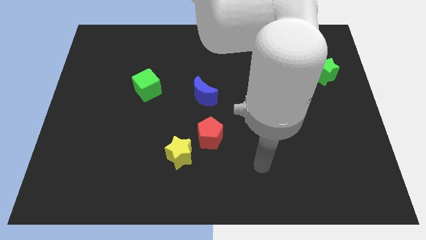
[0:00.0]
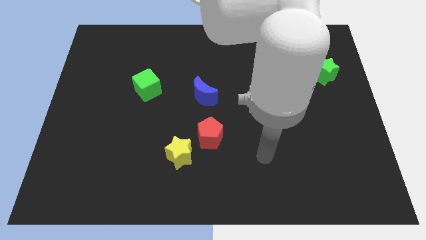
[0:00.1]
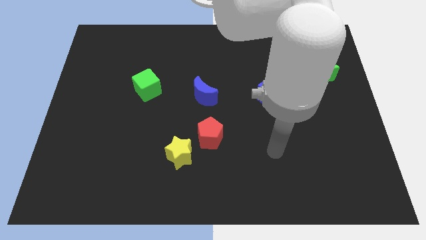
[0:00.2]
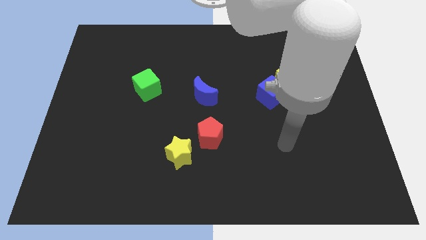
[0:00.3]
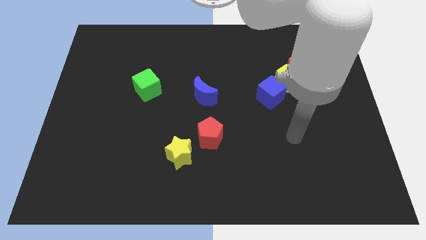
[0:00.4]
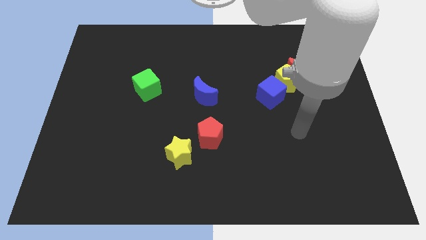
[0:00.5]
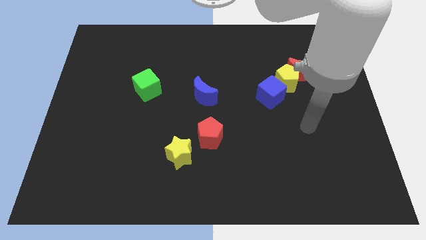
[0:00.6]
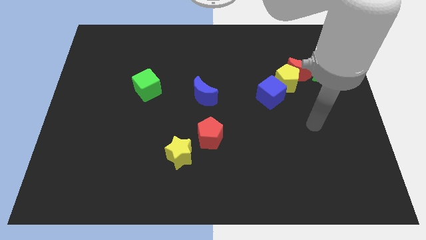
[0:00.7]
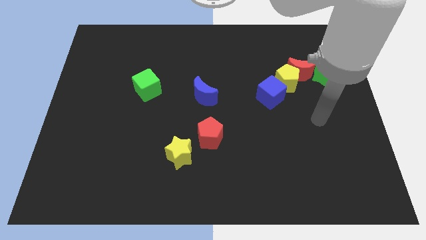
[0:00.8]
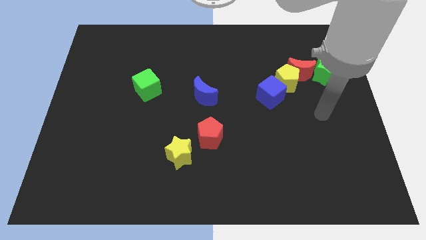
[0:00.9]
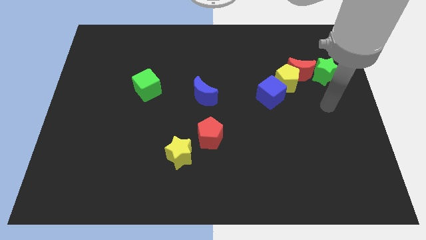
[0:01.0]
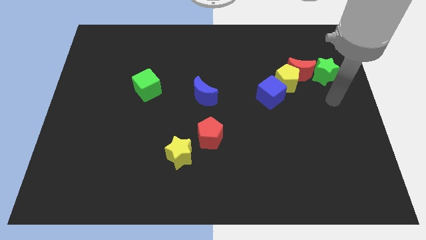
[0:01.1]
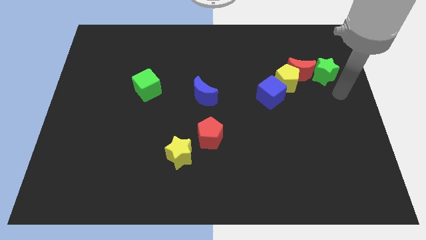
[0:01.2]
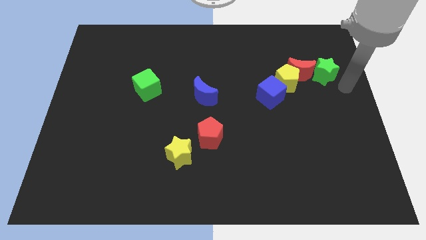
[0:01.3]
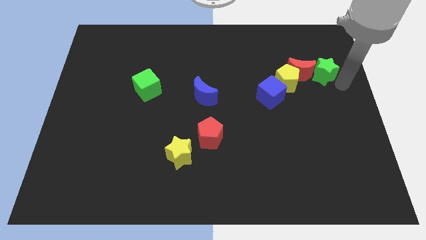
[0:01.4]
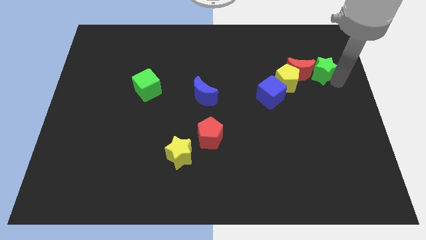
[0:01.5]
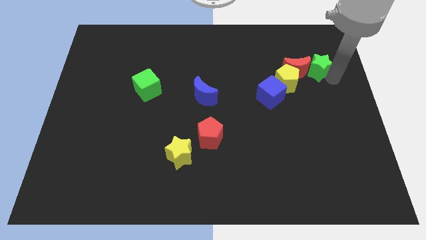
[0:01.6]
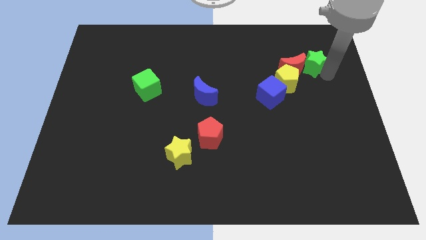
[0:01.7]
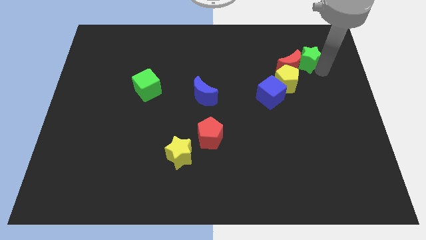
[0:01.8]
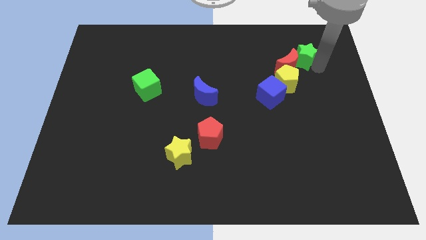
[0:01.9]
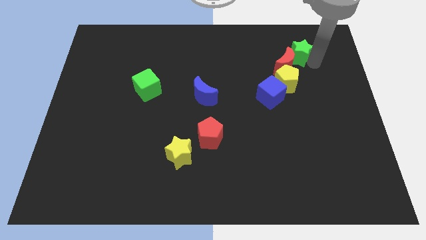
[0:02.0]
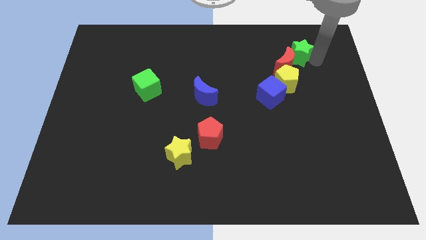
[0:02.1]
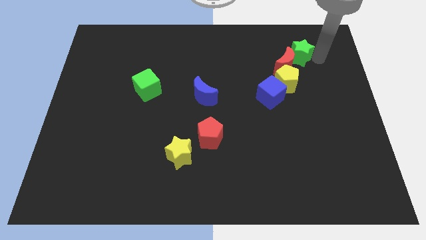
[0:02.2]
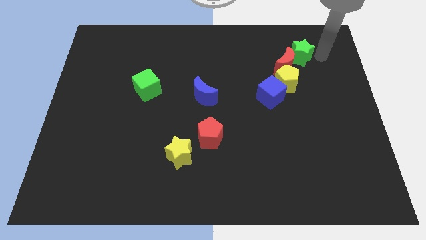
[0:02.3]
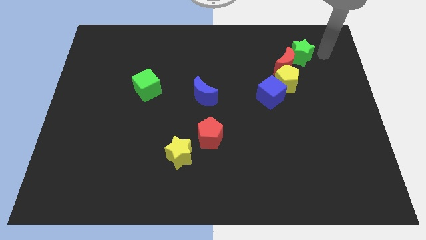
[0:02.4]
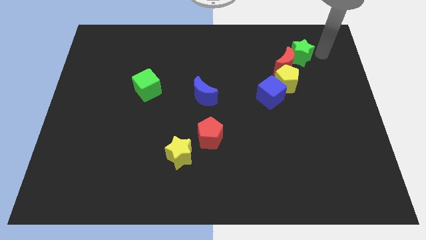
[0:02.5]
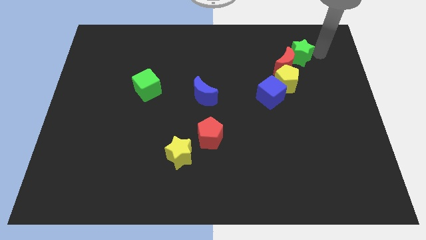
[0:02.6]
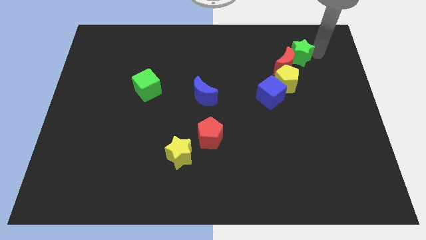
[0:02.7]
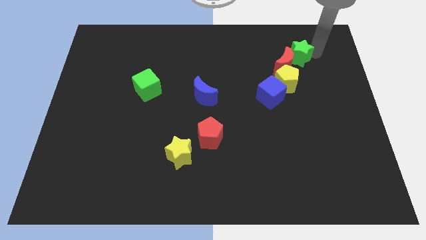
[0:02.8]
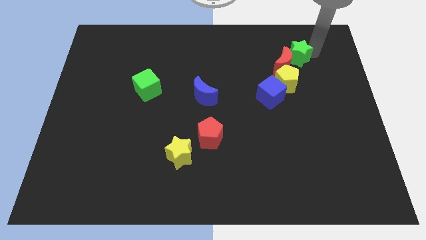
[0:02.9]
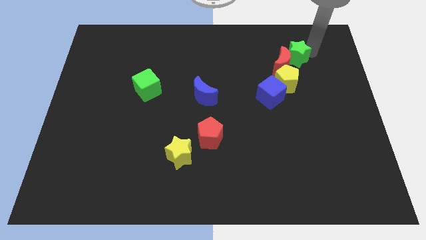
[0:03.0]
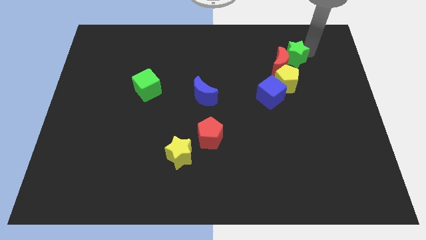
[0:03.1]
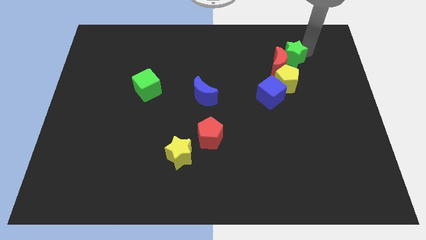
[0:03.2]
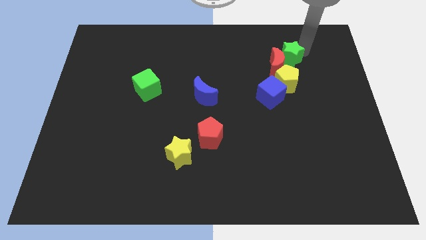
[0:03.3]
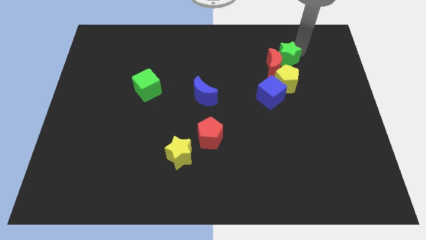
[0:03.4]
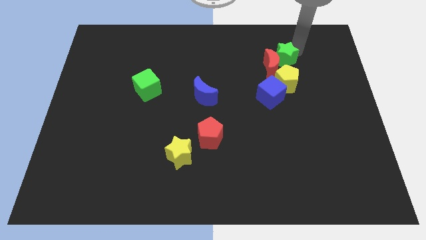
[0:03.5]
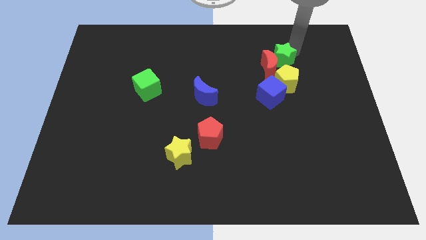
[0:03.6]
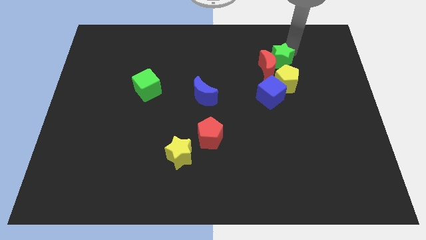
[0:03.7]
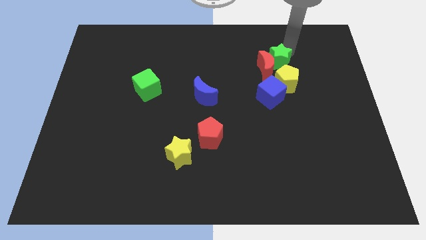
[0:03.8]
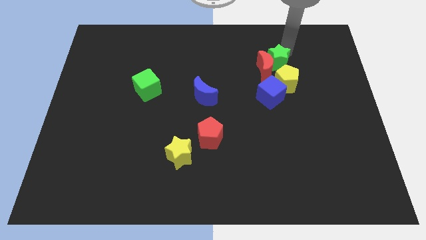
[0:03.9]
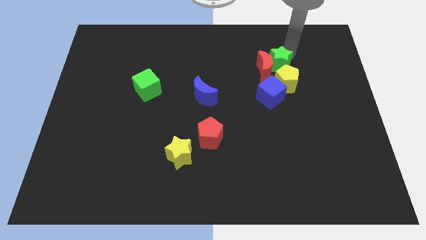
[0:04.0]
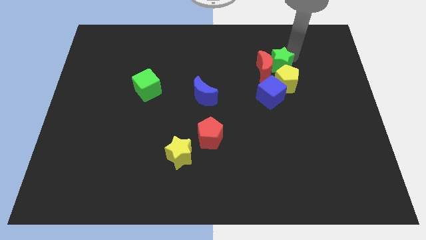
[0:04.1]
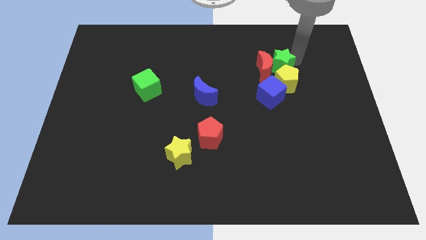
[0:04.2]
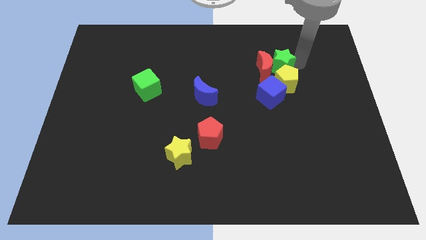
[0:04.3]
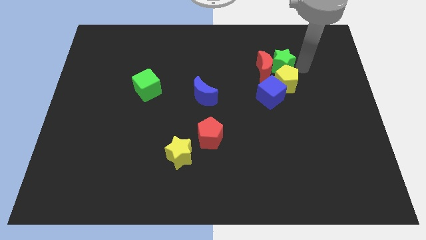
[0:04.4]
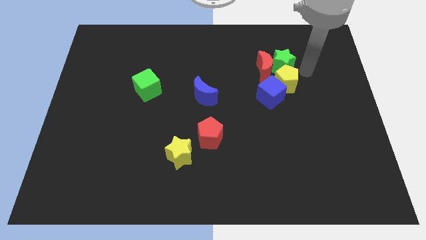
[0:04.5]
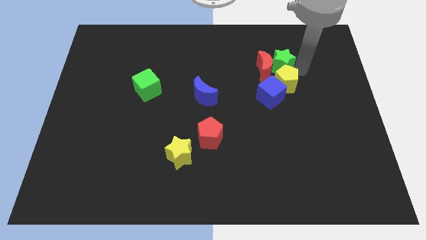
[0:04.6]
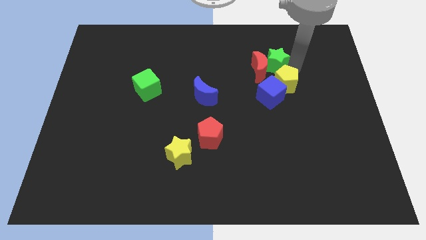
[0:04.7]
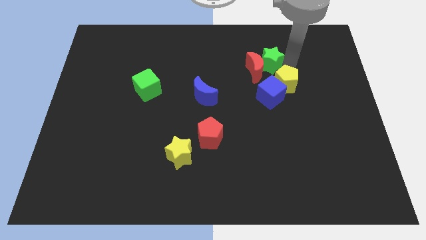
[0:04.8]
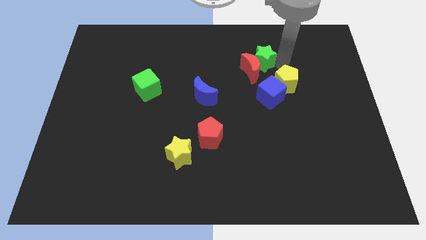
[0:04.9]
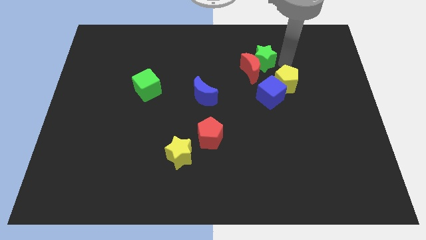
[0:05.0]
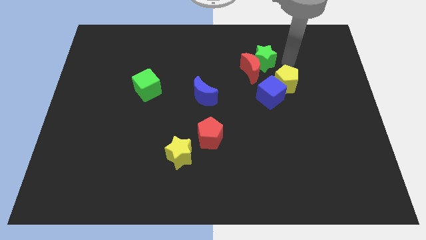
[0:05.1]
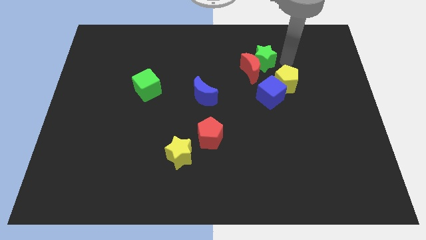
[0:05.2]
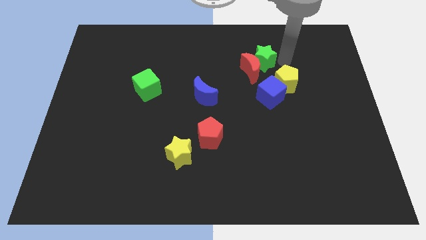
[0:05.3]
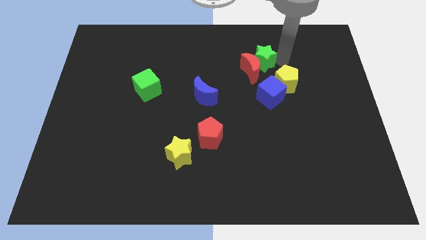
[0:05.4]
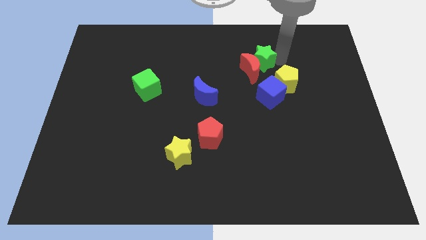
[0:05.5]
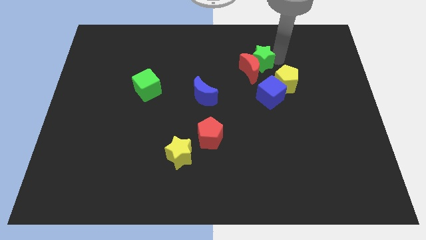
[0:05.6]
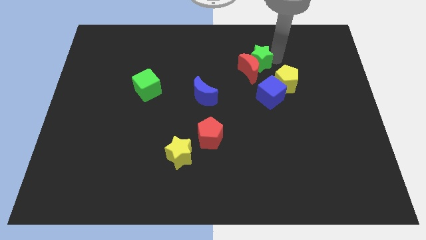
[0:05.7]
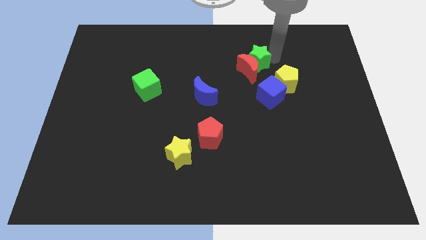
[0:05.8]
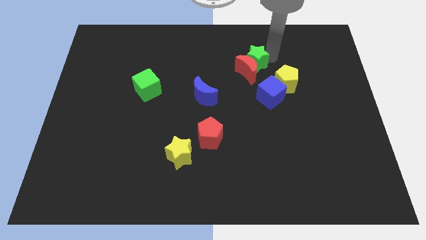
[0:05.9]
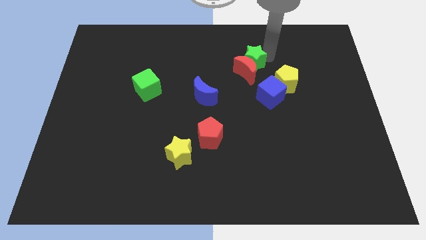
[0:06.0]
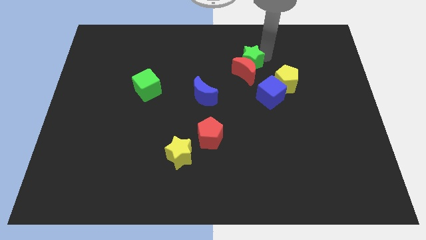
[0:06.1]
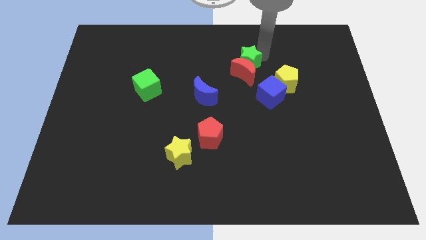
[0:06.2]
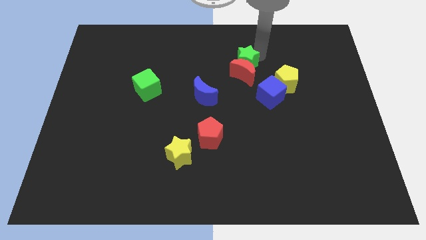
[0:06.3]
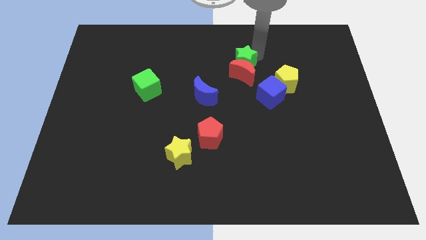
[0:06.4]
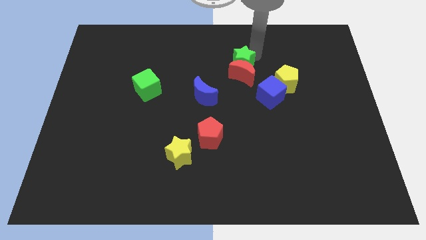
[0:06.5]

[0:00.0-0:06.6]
slide the green star left

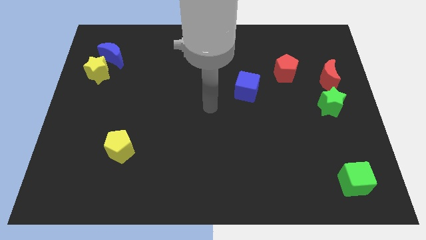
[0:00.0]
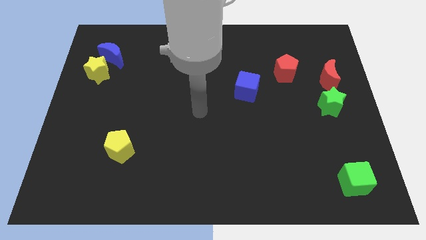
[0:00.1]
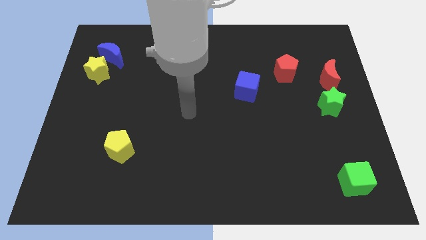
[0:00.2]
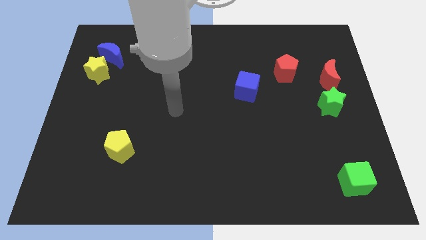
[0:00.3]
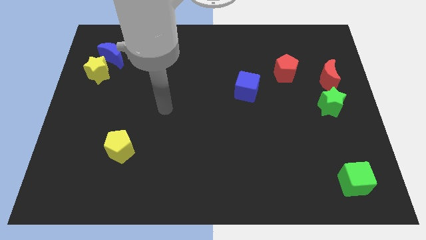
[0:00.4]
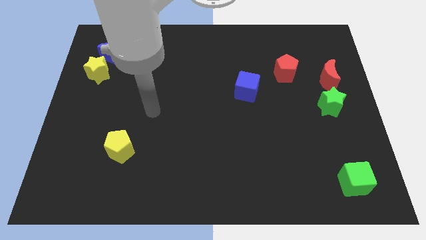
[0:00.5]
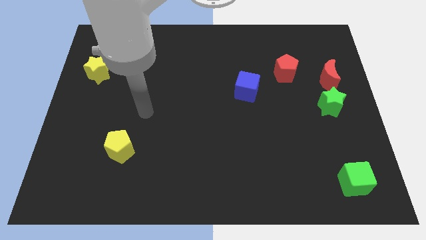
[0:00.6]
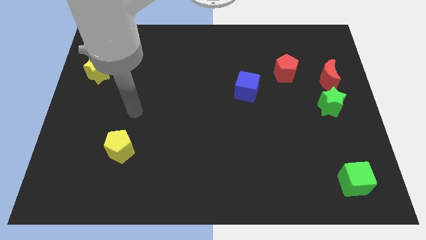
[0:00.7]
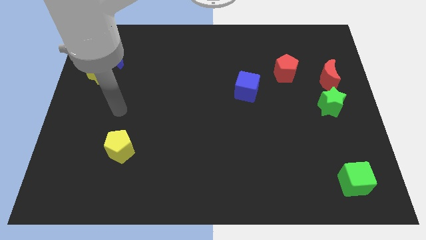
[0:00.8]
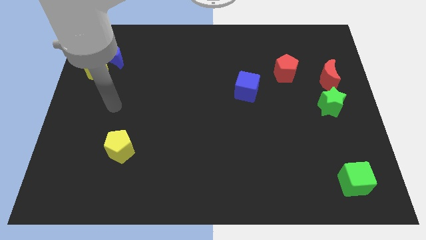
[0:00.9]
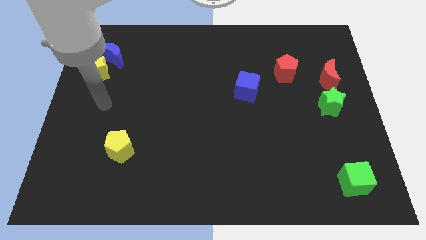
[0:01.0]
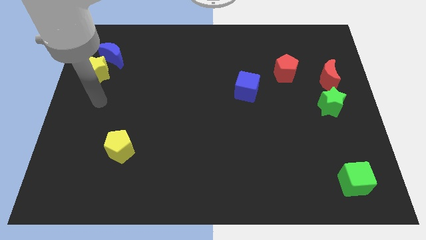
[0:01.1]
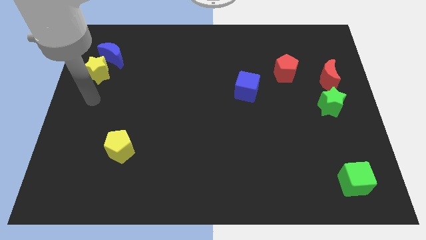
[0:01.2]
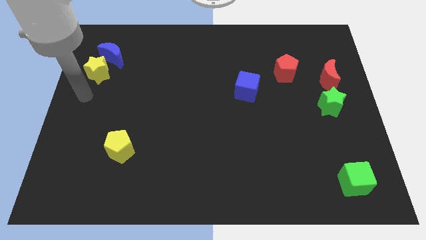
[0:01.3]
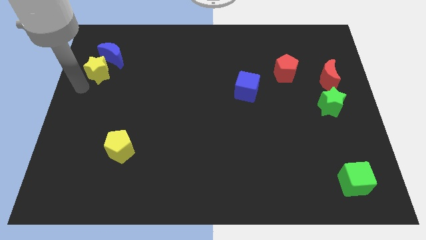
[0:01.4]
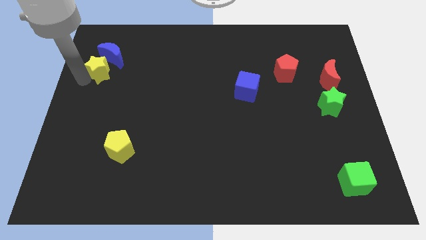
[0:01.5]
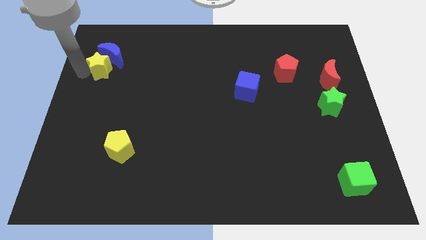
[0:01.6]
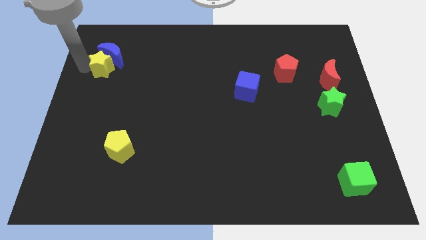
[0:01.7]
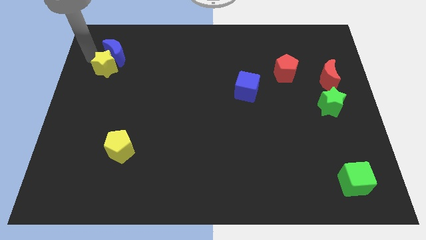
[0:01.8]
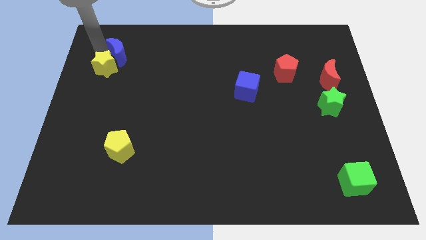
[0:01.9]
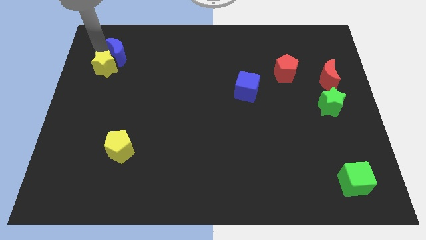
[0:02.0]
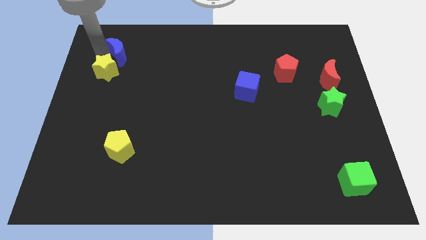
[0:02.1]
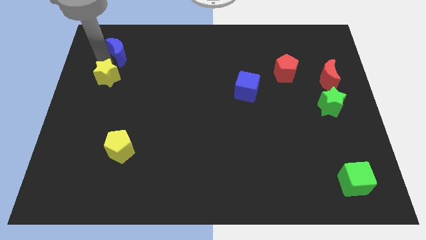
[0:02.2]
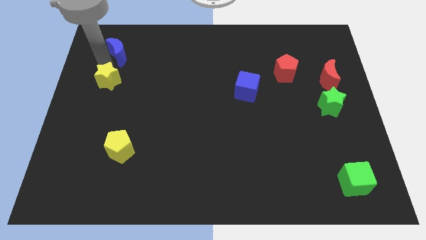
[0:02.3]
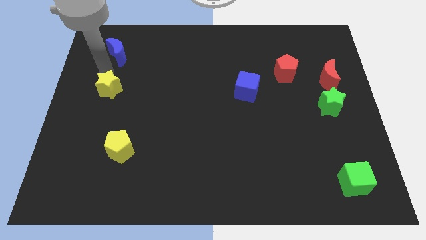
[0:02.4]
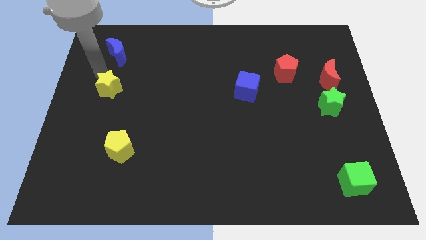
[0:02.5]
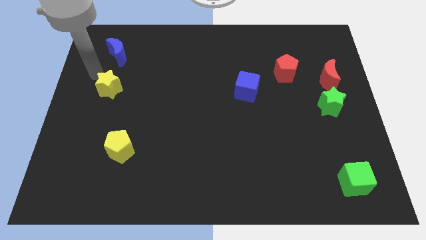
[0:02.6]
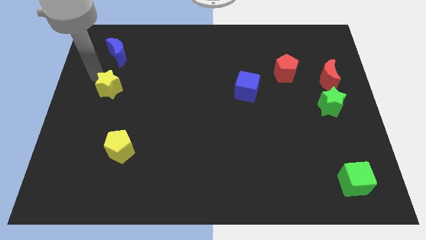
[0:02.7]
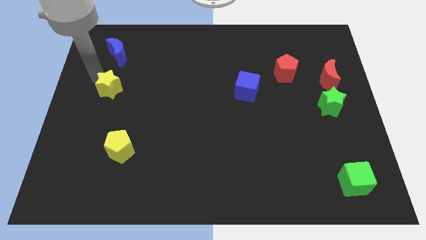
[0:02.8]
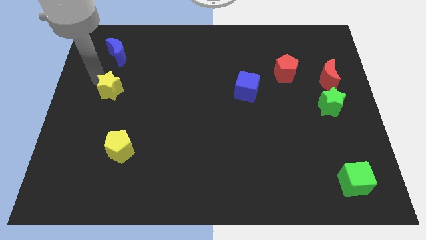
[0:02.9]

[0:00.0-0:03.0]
slightly push the yellow star diagonally downwards and right
